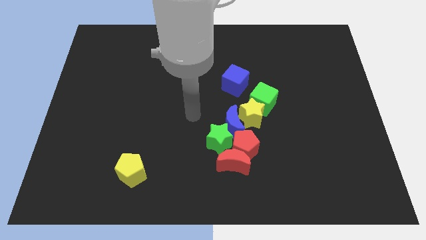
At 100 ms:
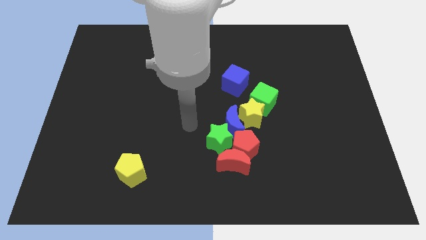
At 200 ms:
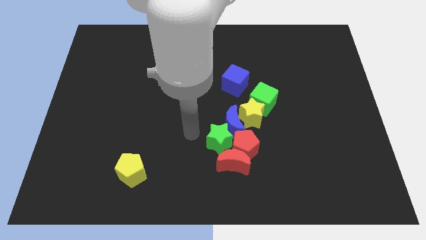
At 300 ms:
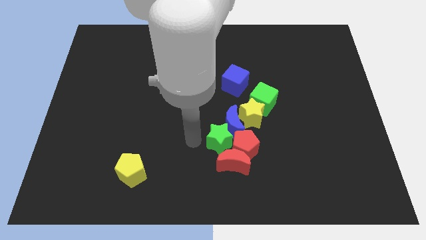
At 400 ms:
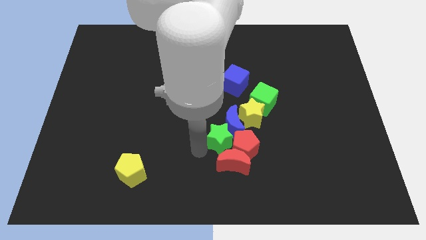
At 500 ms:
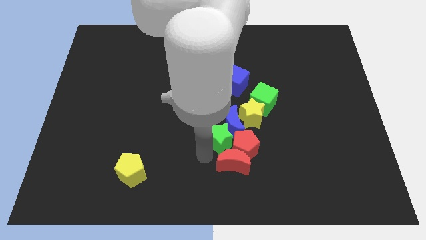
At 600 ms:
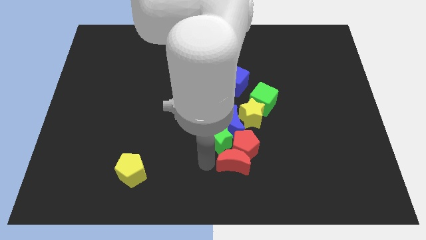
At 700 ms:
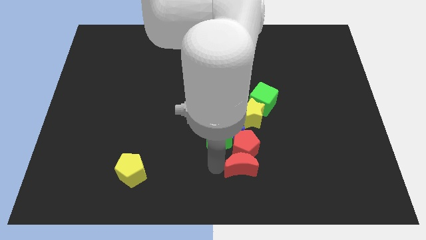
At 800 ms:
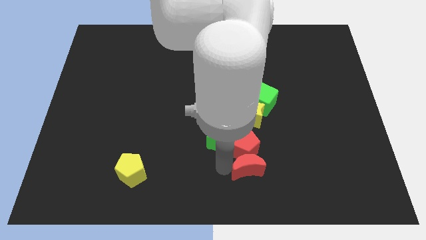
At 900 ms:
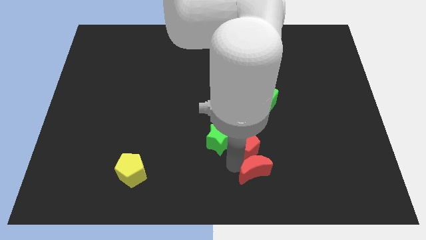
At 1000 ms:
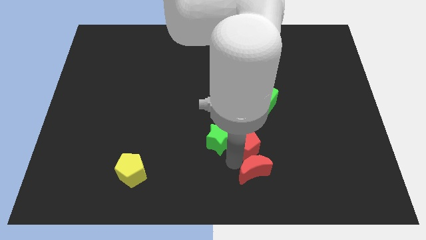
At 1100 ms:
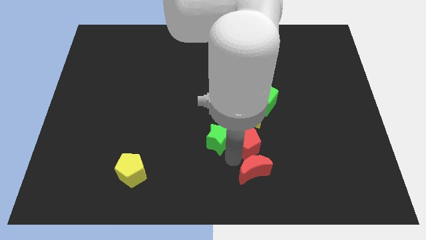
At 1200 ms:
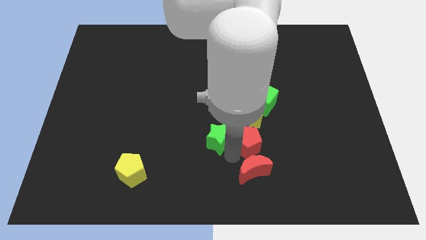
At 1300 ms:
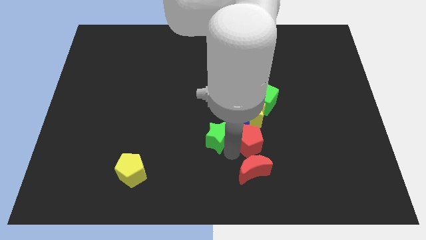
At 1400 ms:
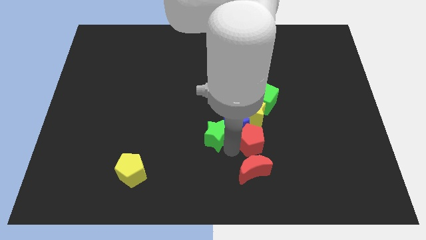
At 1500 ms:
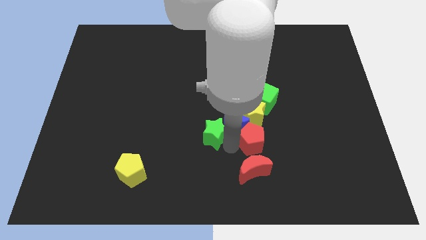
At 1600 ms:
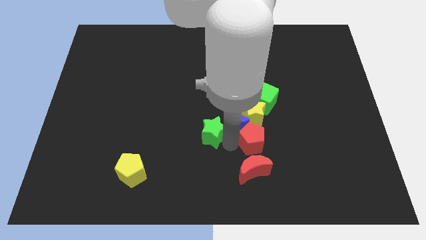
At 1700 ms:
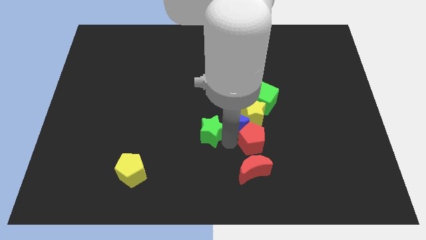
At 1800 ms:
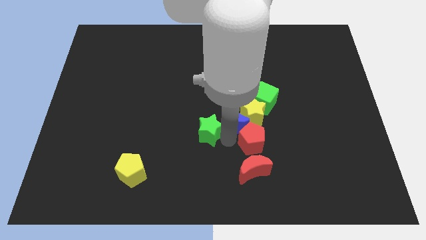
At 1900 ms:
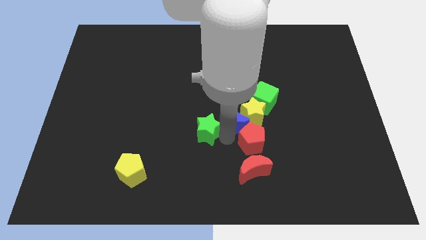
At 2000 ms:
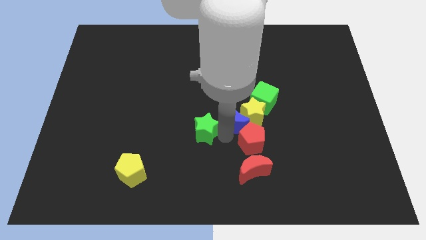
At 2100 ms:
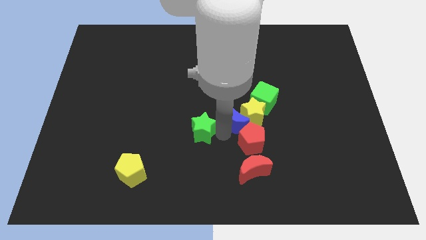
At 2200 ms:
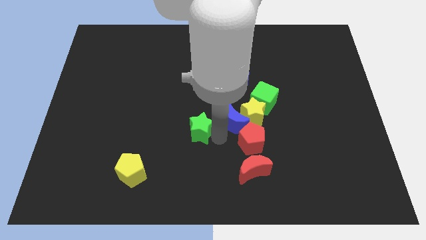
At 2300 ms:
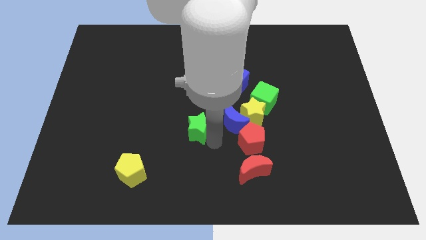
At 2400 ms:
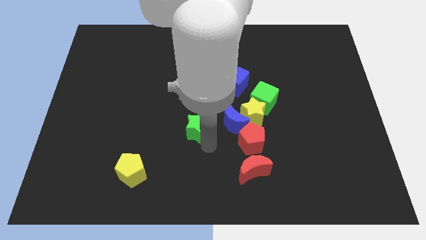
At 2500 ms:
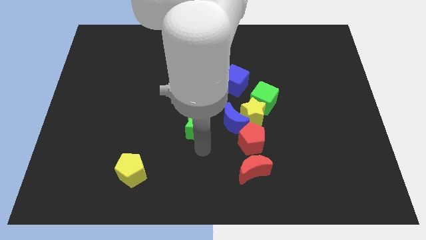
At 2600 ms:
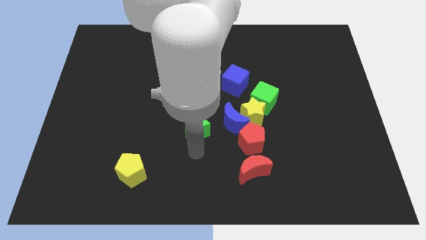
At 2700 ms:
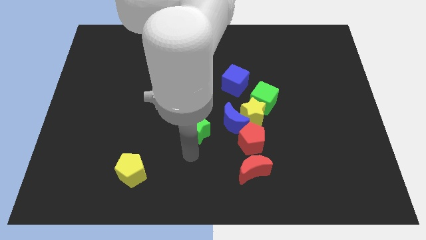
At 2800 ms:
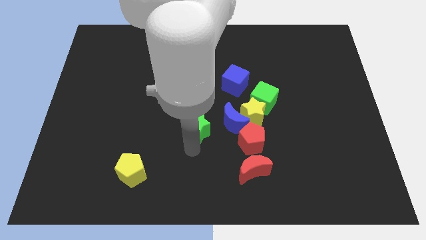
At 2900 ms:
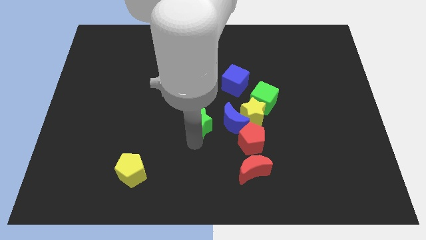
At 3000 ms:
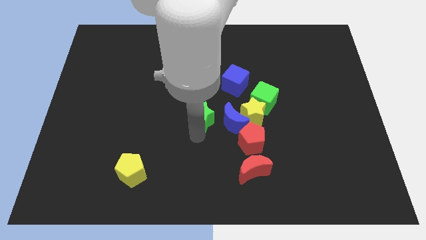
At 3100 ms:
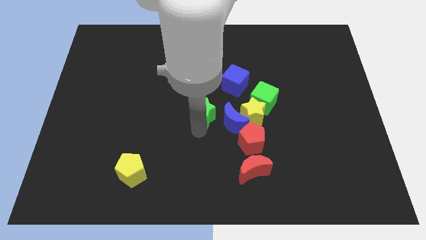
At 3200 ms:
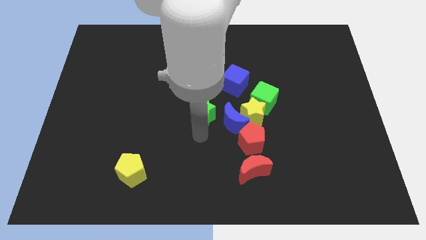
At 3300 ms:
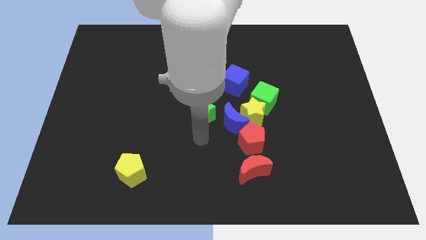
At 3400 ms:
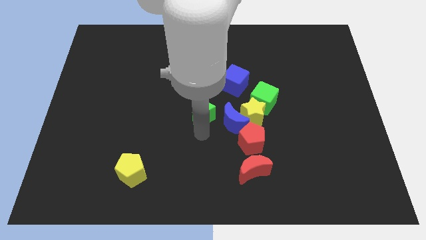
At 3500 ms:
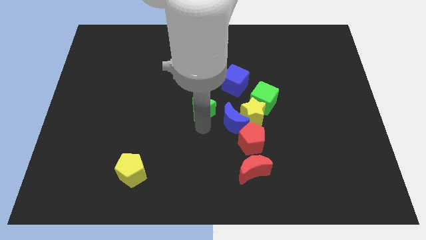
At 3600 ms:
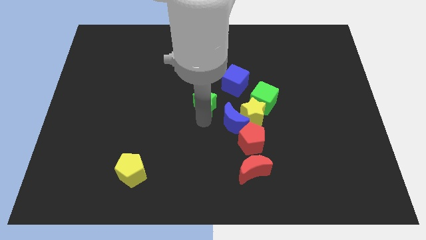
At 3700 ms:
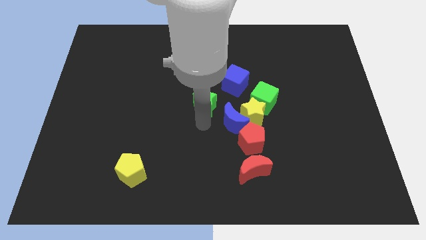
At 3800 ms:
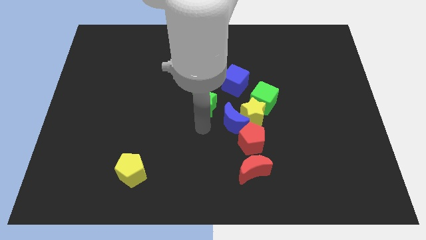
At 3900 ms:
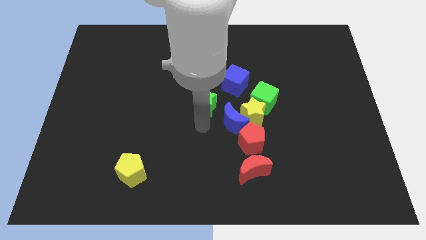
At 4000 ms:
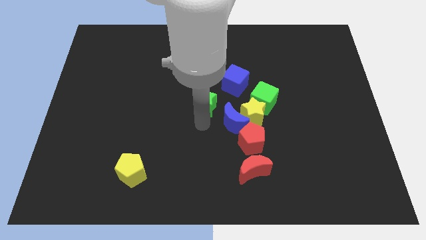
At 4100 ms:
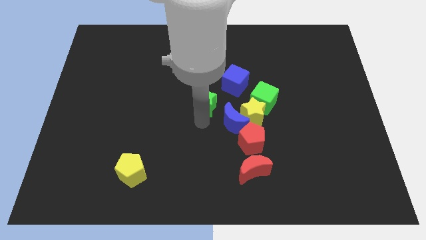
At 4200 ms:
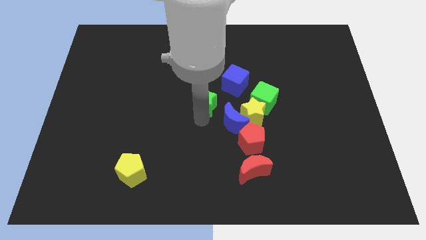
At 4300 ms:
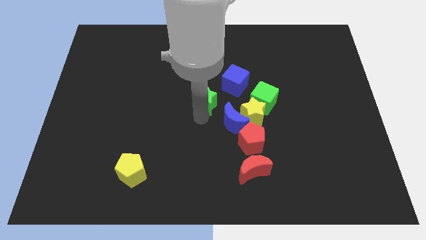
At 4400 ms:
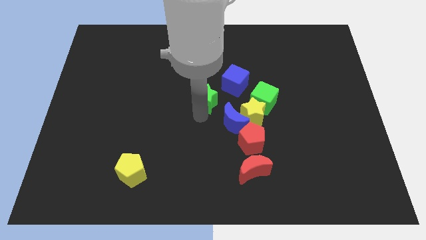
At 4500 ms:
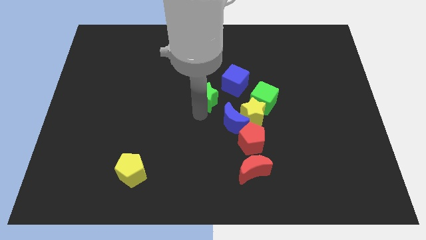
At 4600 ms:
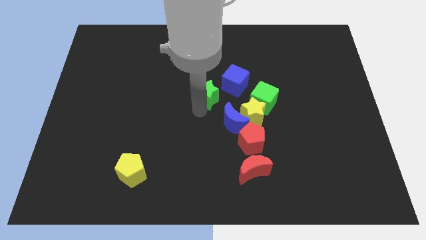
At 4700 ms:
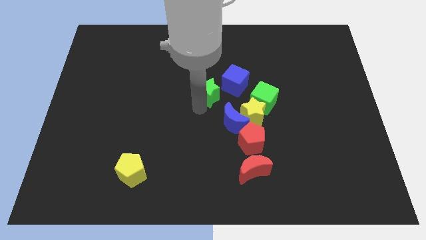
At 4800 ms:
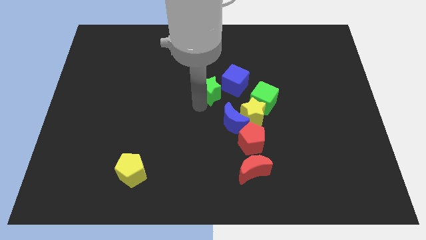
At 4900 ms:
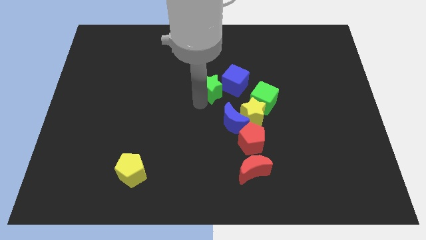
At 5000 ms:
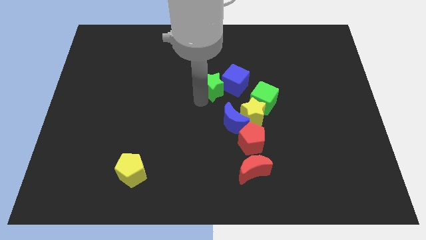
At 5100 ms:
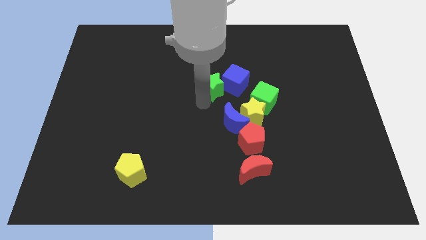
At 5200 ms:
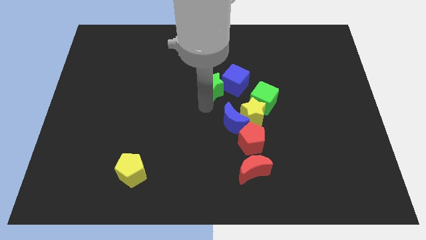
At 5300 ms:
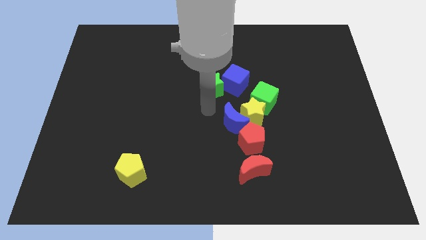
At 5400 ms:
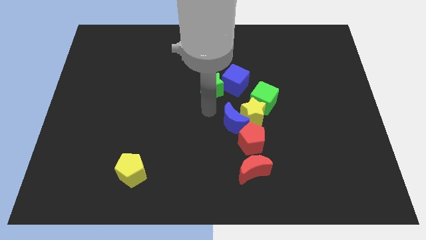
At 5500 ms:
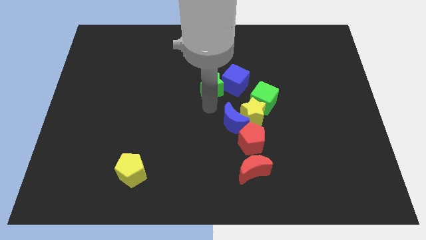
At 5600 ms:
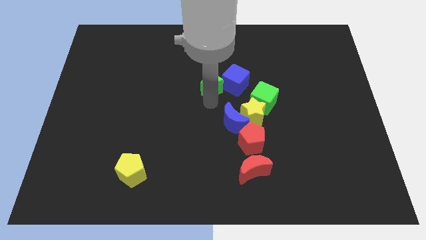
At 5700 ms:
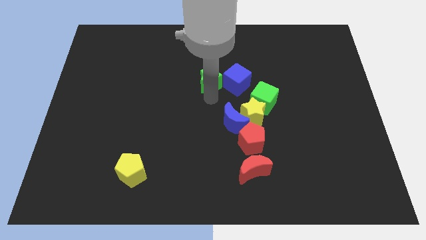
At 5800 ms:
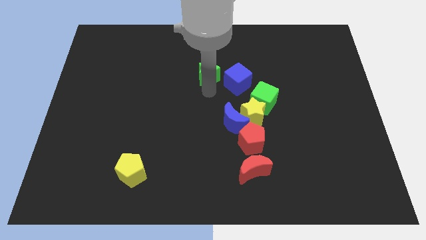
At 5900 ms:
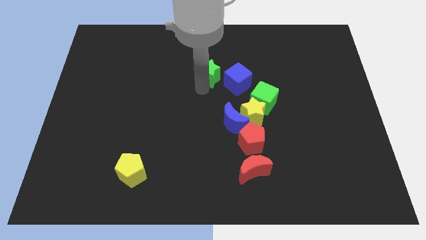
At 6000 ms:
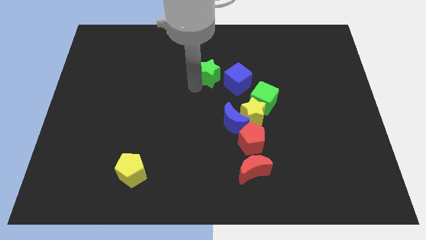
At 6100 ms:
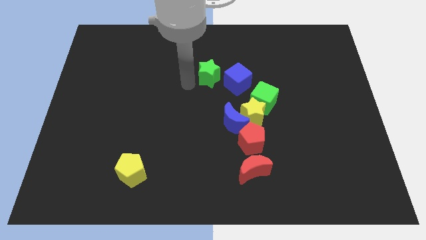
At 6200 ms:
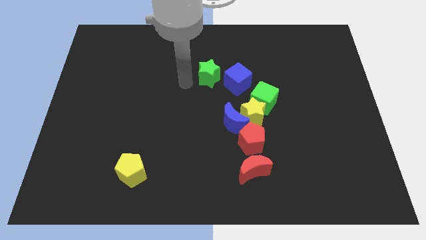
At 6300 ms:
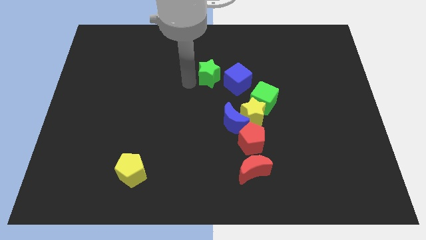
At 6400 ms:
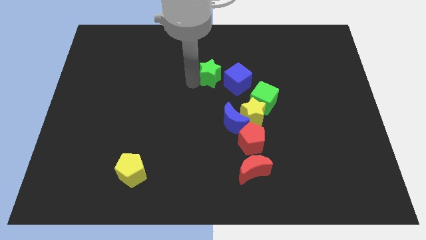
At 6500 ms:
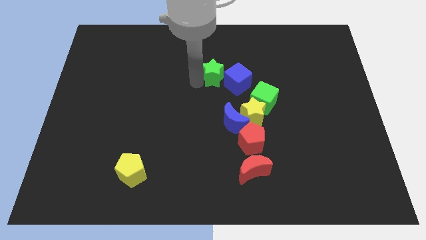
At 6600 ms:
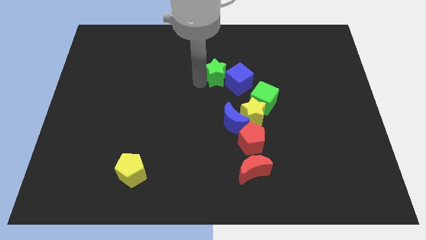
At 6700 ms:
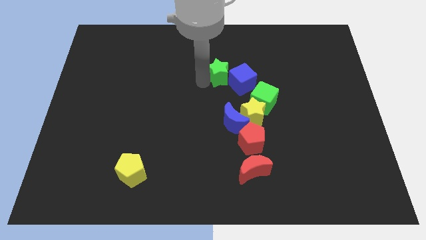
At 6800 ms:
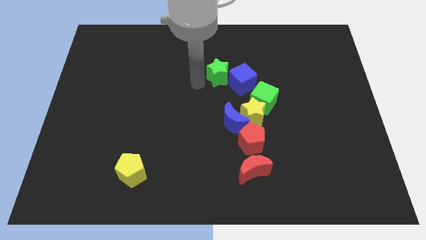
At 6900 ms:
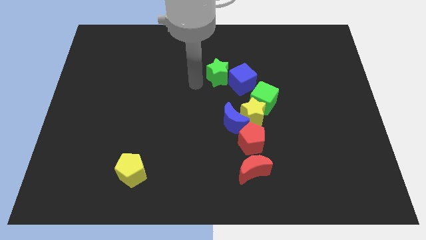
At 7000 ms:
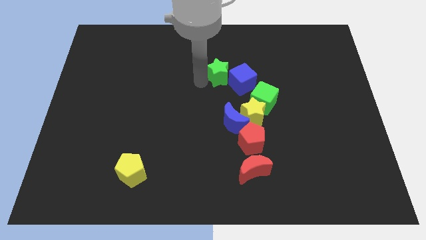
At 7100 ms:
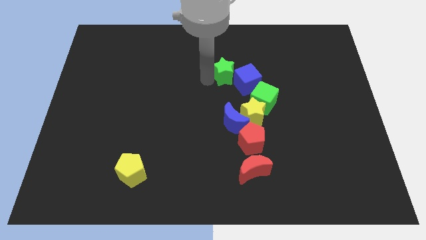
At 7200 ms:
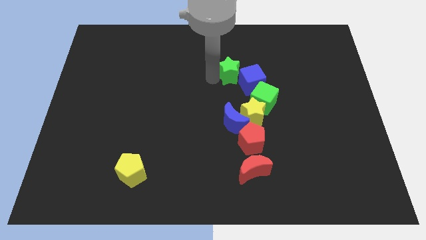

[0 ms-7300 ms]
slide the green star upwards and to the right diagonally a little

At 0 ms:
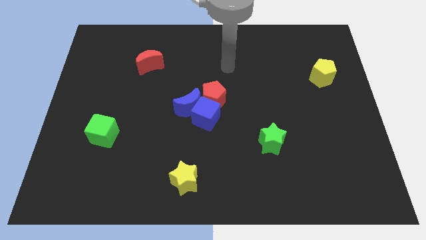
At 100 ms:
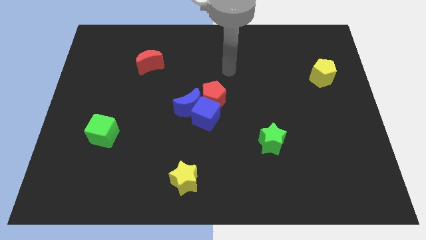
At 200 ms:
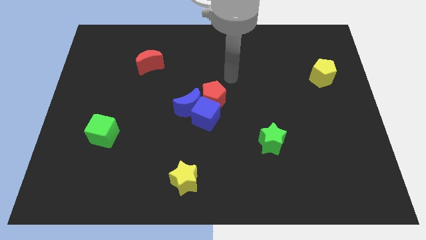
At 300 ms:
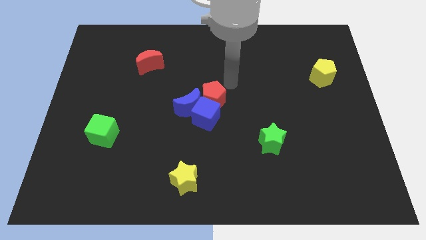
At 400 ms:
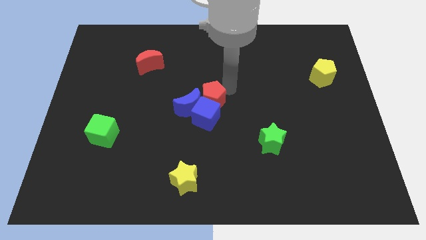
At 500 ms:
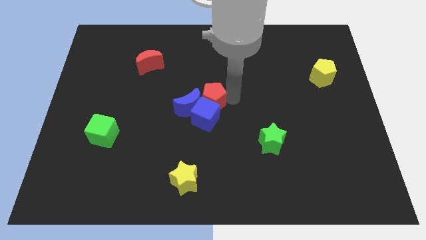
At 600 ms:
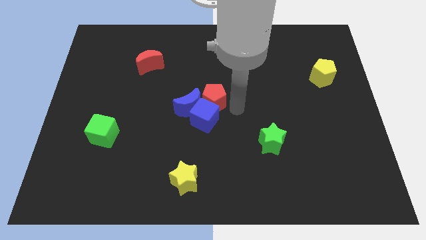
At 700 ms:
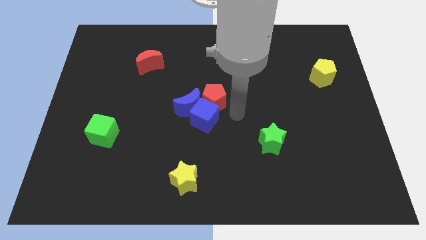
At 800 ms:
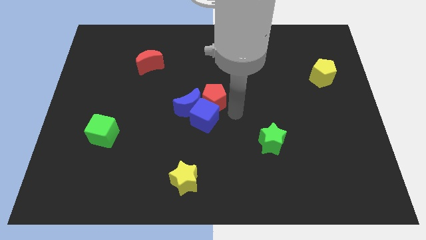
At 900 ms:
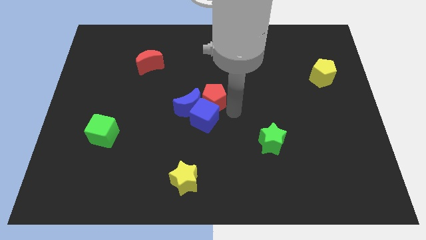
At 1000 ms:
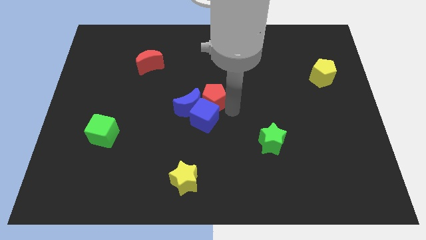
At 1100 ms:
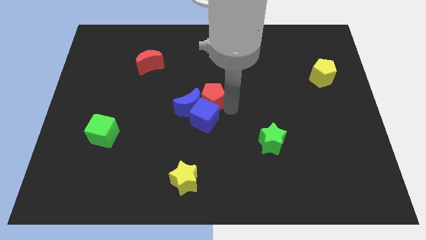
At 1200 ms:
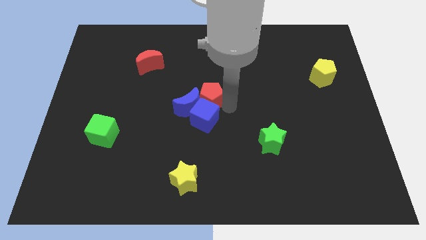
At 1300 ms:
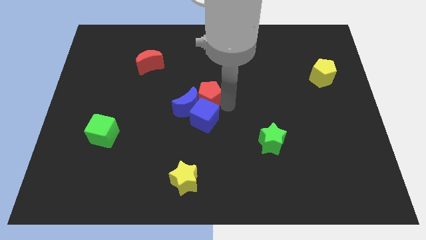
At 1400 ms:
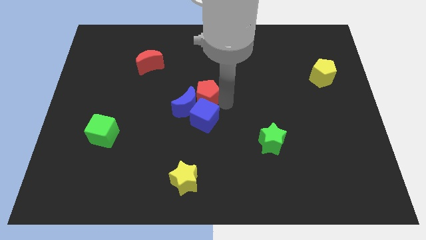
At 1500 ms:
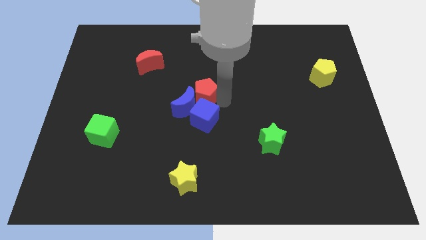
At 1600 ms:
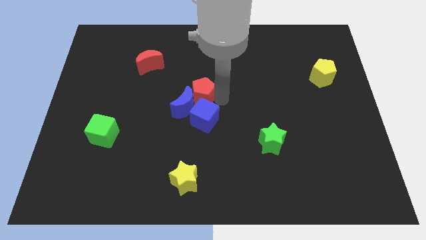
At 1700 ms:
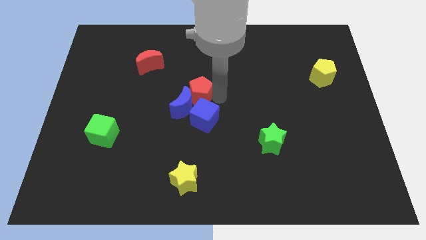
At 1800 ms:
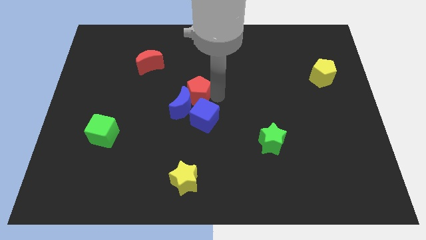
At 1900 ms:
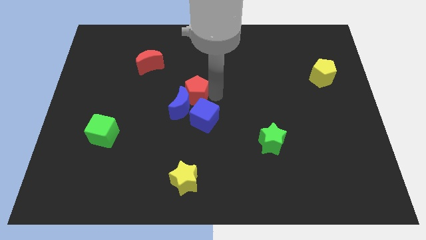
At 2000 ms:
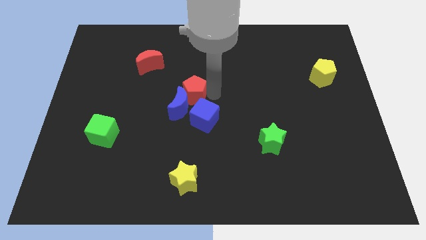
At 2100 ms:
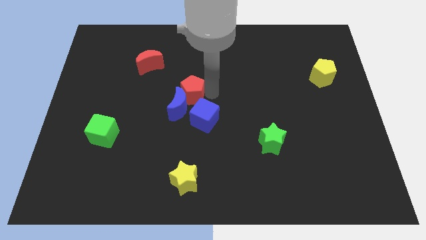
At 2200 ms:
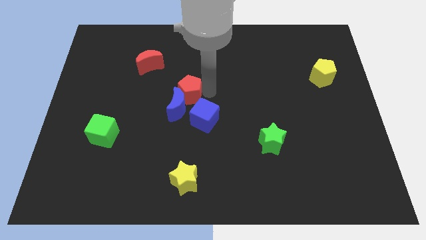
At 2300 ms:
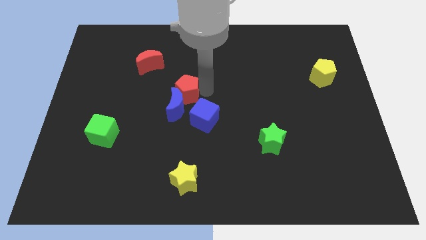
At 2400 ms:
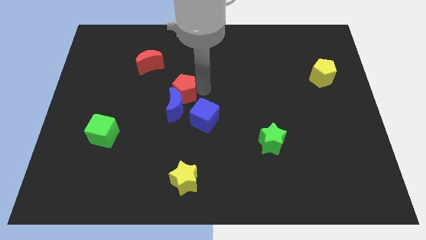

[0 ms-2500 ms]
push the red pentagon a little bit left
